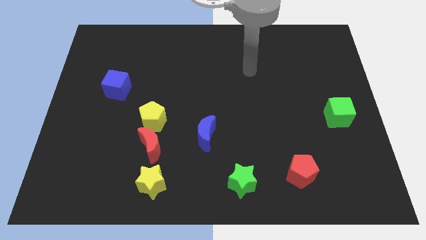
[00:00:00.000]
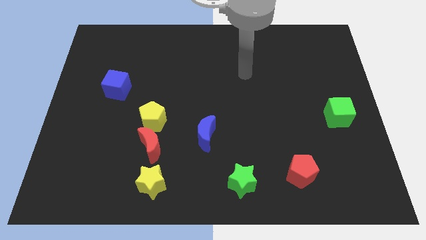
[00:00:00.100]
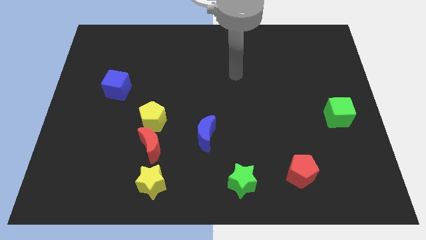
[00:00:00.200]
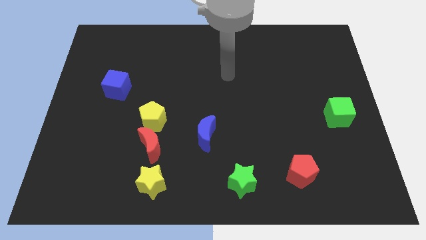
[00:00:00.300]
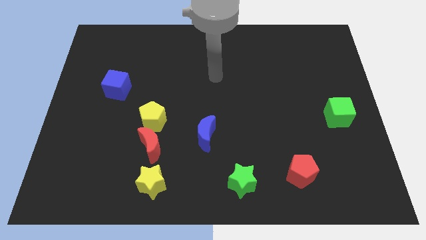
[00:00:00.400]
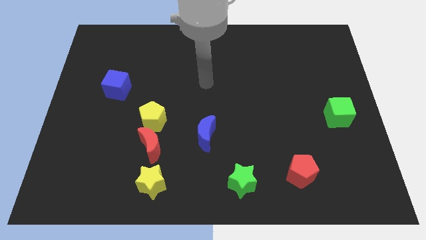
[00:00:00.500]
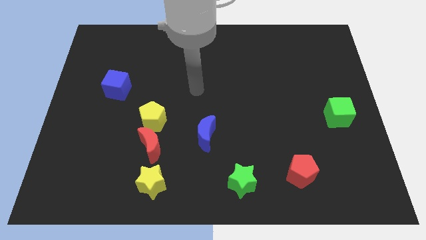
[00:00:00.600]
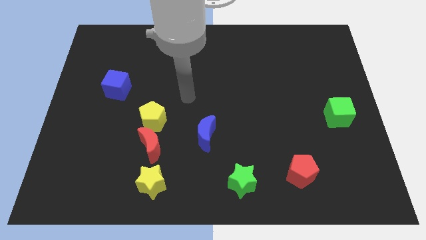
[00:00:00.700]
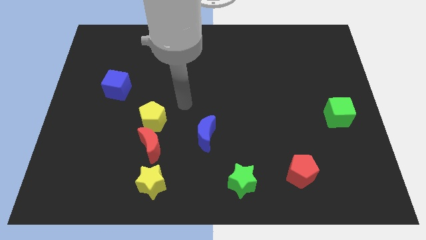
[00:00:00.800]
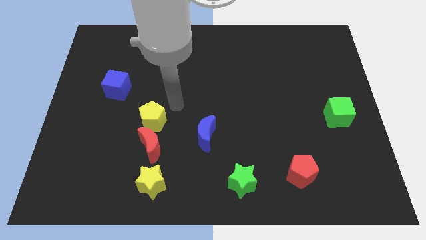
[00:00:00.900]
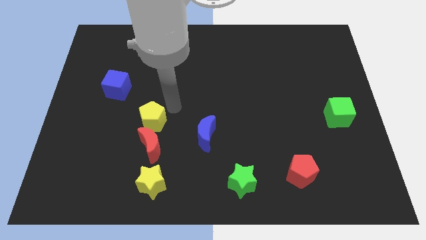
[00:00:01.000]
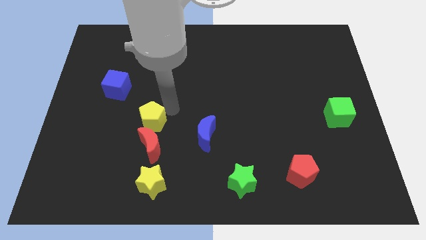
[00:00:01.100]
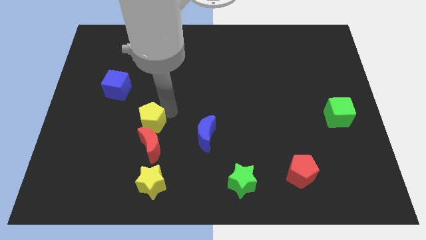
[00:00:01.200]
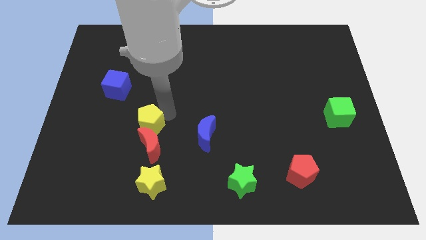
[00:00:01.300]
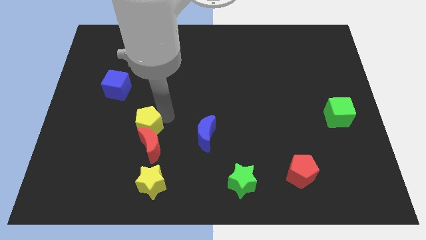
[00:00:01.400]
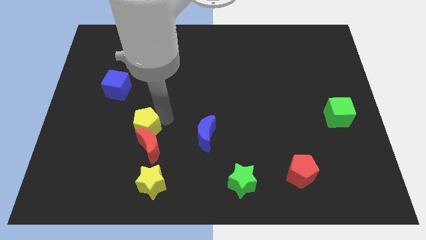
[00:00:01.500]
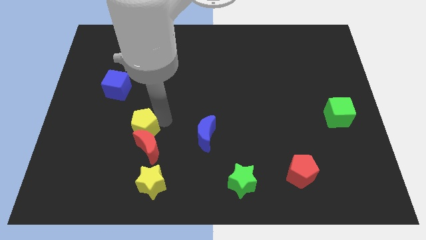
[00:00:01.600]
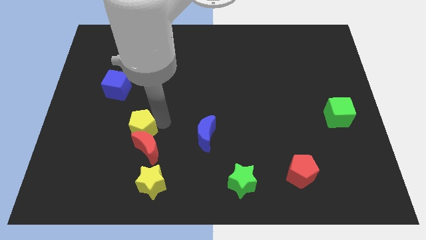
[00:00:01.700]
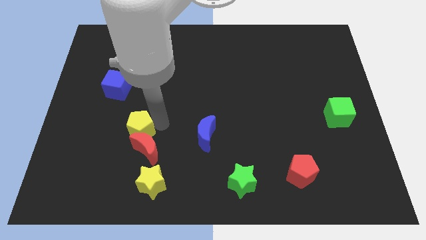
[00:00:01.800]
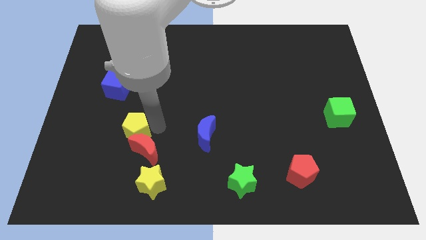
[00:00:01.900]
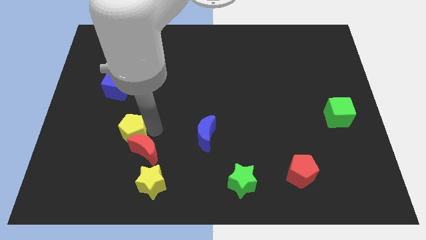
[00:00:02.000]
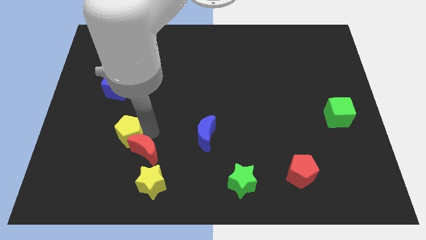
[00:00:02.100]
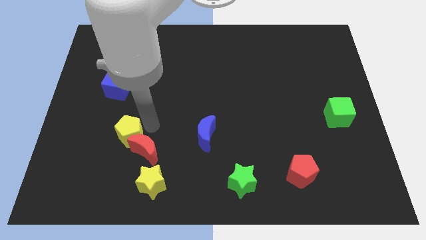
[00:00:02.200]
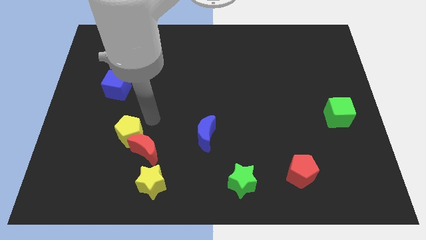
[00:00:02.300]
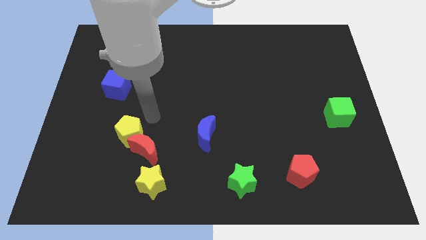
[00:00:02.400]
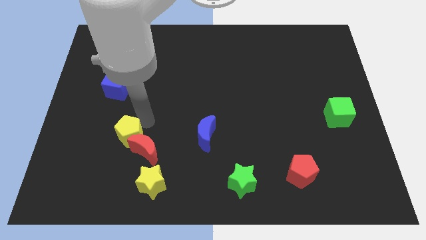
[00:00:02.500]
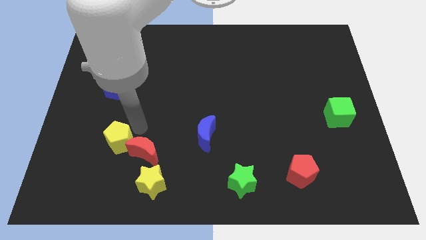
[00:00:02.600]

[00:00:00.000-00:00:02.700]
push the yellow pentagon diagonally down and left a little

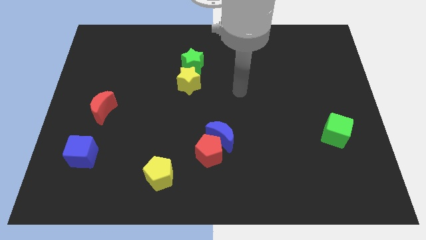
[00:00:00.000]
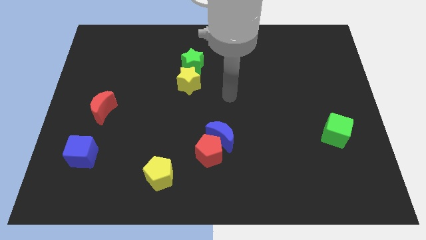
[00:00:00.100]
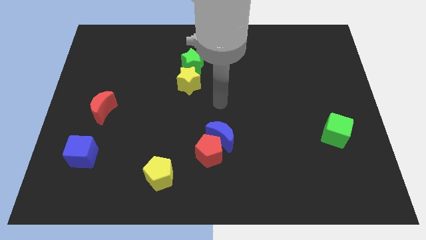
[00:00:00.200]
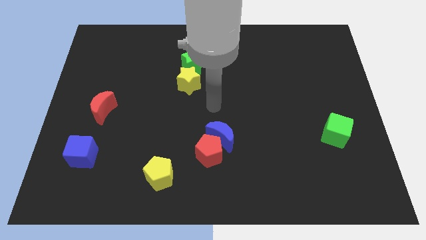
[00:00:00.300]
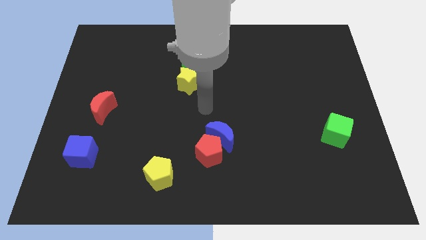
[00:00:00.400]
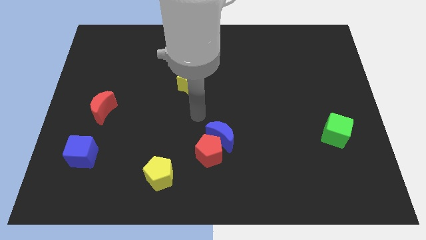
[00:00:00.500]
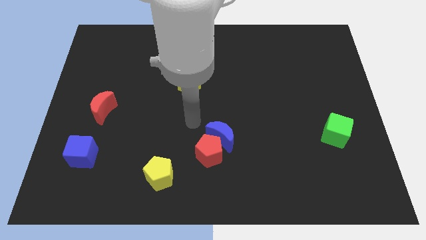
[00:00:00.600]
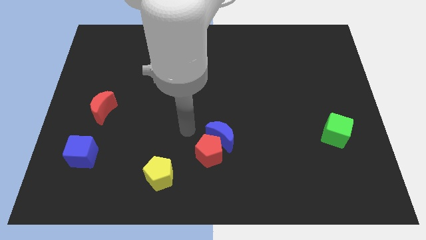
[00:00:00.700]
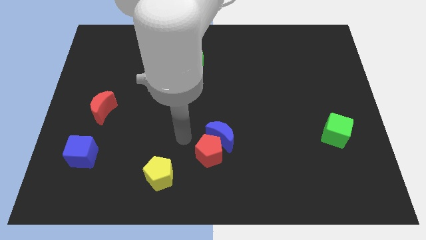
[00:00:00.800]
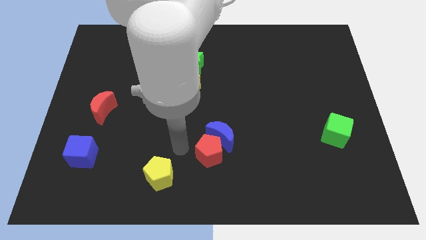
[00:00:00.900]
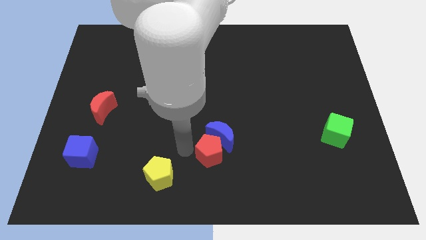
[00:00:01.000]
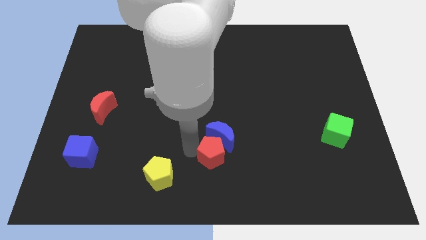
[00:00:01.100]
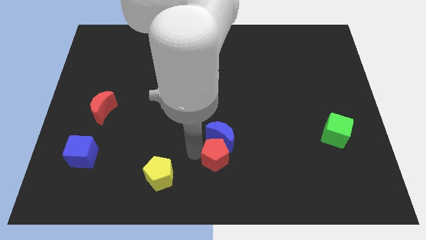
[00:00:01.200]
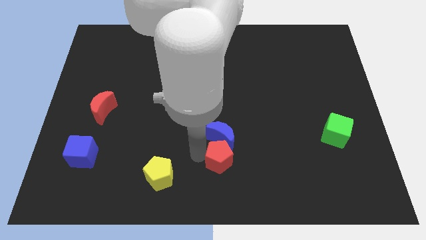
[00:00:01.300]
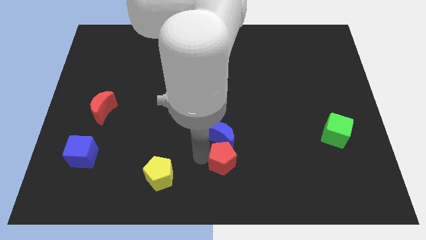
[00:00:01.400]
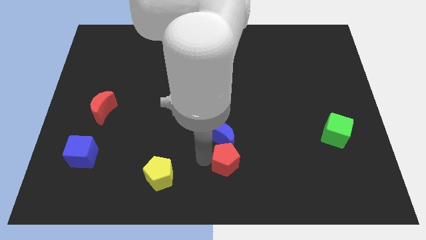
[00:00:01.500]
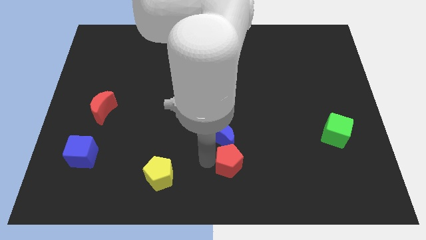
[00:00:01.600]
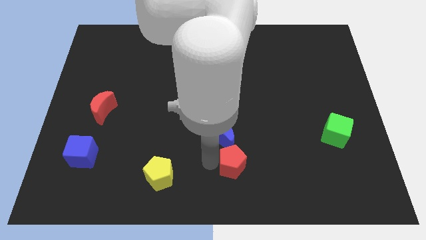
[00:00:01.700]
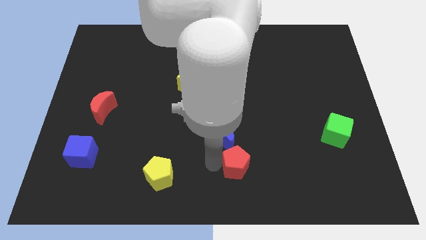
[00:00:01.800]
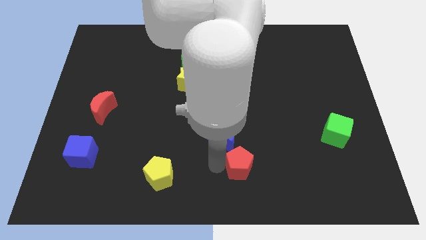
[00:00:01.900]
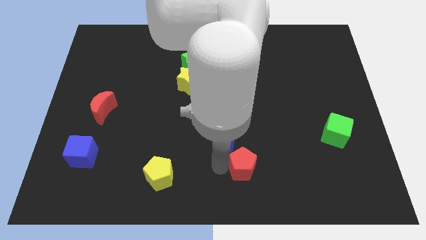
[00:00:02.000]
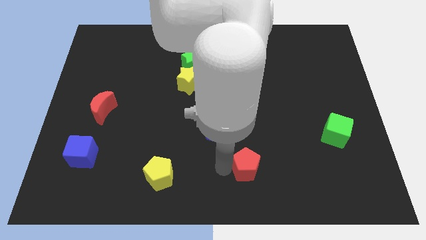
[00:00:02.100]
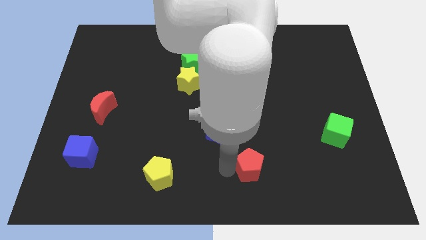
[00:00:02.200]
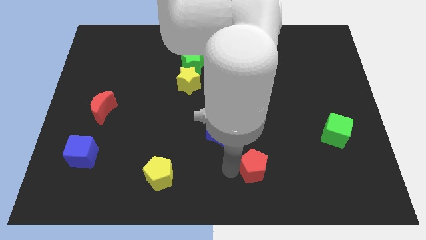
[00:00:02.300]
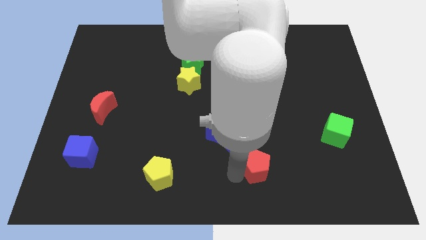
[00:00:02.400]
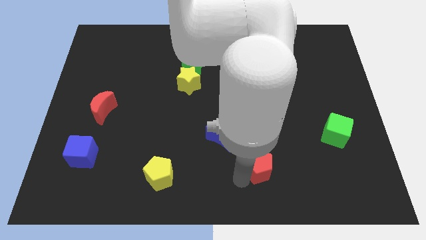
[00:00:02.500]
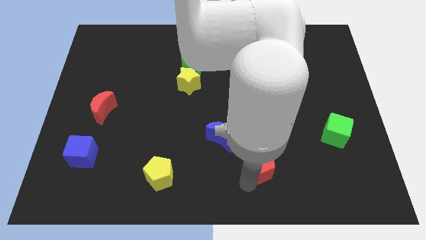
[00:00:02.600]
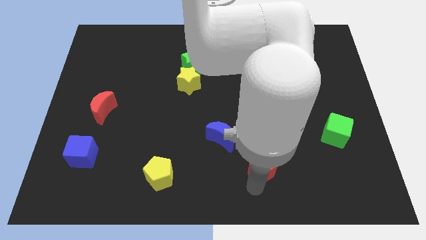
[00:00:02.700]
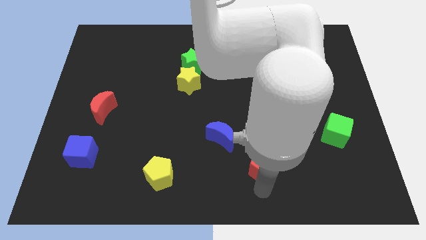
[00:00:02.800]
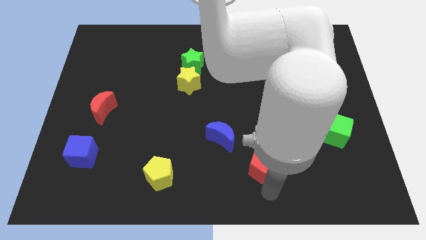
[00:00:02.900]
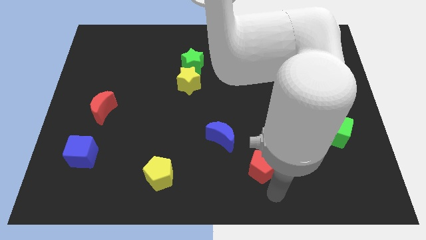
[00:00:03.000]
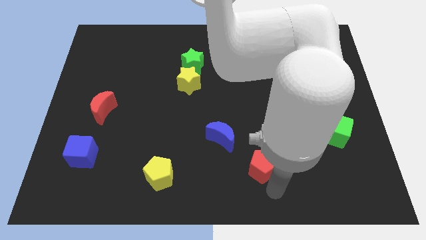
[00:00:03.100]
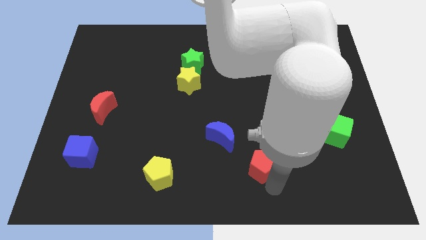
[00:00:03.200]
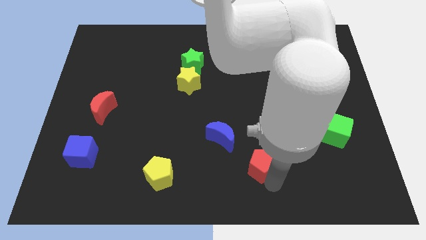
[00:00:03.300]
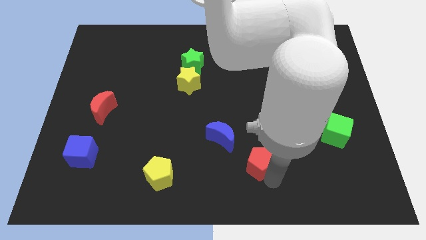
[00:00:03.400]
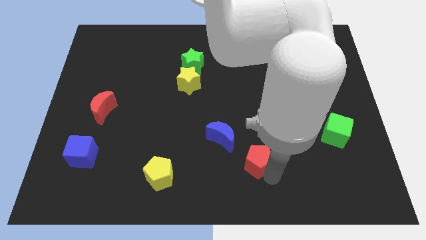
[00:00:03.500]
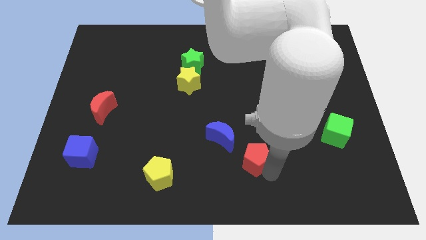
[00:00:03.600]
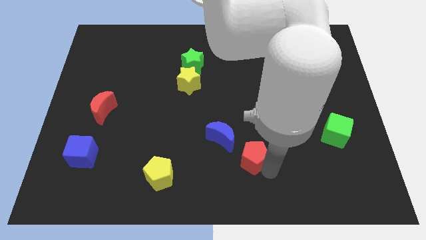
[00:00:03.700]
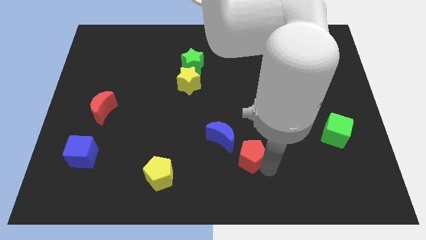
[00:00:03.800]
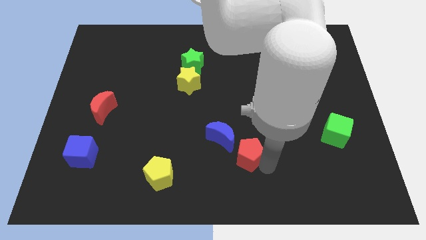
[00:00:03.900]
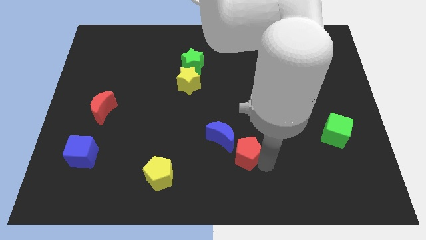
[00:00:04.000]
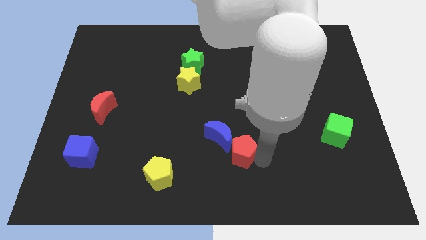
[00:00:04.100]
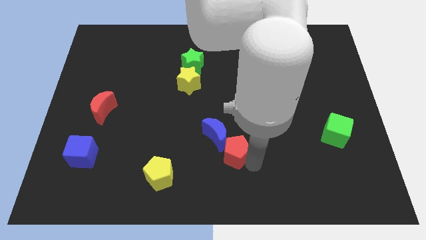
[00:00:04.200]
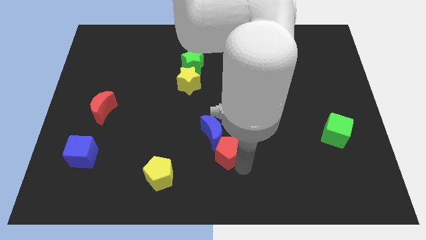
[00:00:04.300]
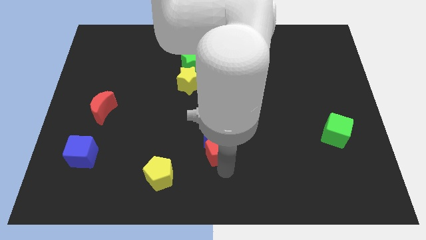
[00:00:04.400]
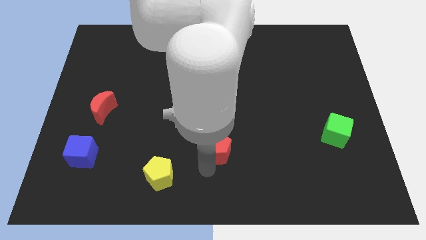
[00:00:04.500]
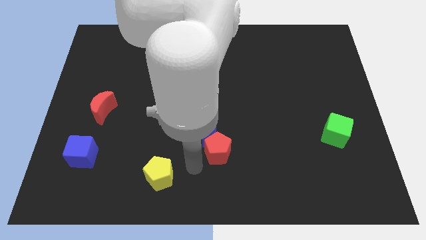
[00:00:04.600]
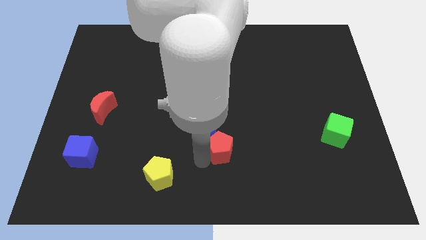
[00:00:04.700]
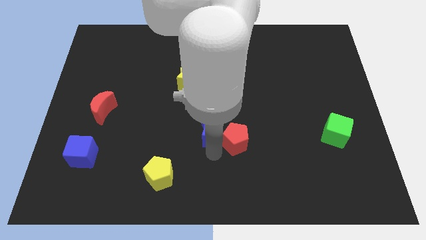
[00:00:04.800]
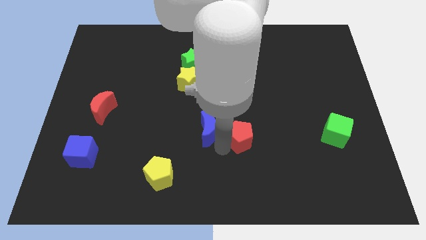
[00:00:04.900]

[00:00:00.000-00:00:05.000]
slide the red pentagon a little bit up and then right

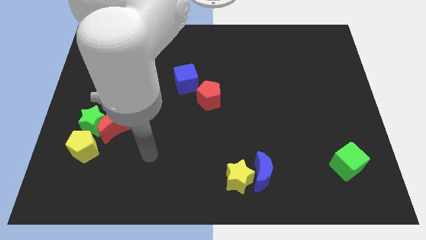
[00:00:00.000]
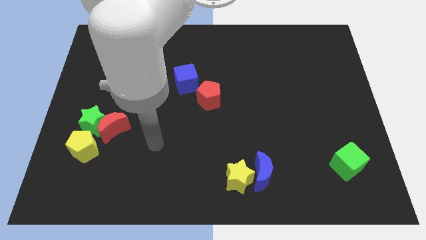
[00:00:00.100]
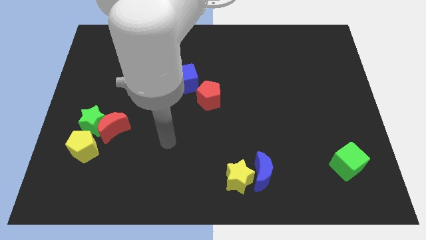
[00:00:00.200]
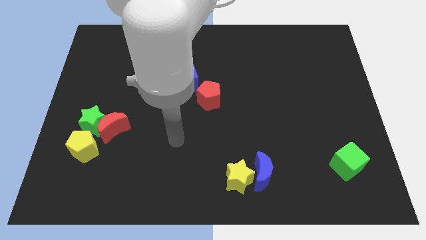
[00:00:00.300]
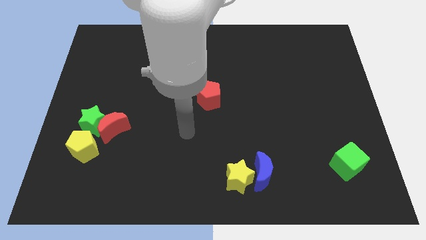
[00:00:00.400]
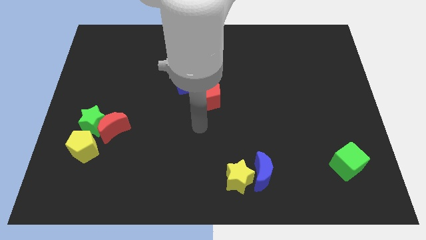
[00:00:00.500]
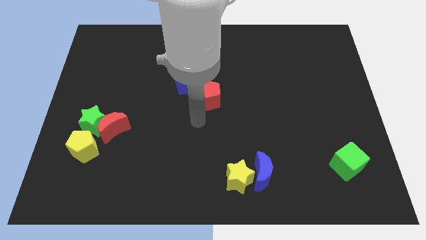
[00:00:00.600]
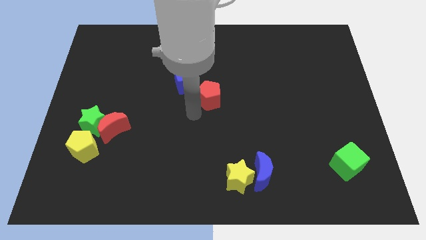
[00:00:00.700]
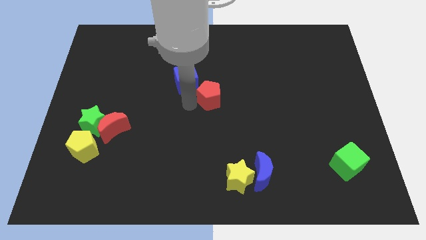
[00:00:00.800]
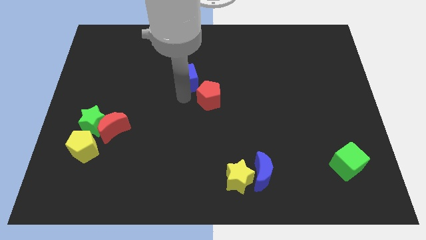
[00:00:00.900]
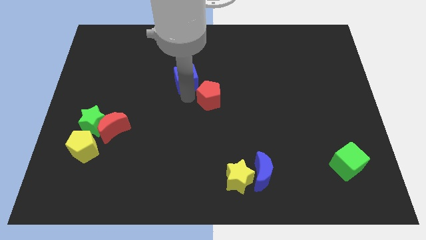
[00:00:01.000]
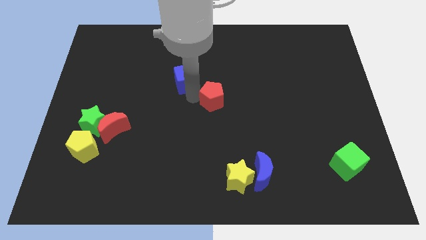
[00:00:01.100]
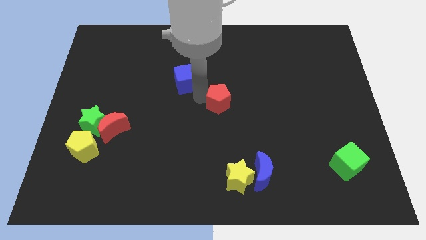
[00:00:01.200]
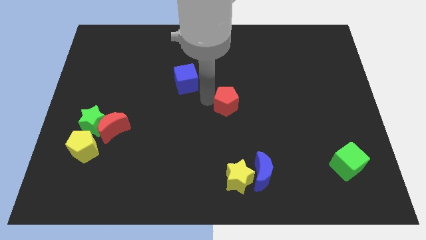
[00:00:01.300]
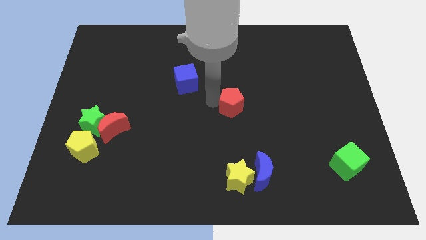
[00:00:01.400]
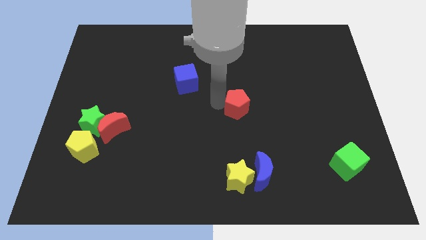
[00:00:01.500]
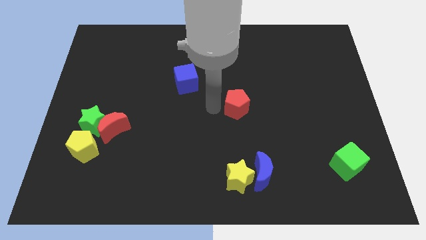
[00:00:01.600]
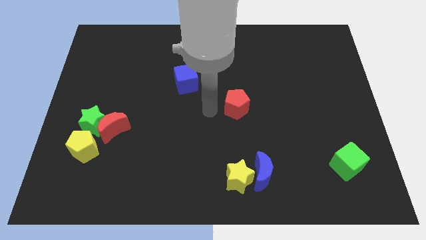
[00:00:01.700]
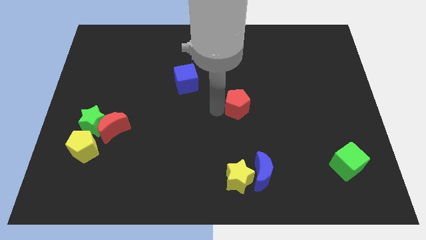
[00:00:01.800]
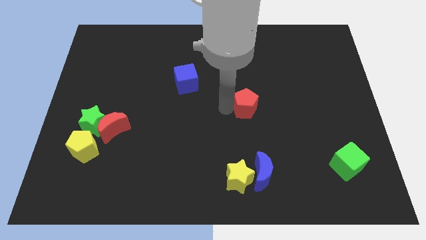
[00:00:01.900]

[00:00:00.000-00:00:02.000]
move the red pentagon right slightly
